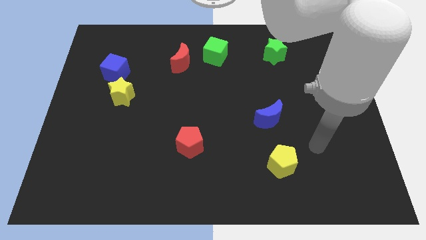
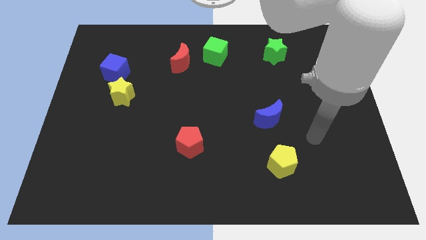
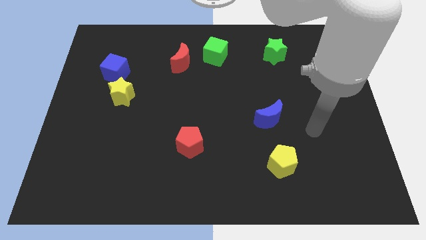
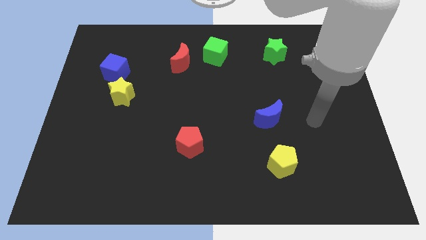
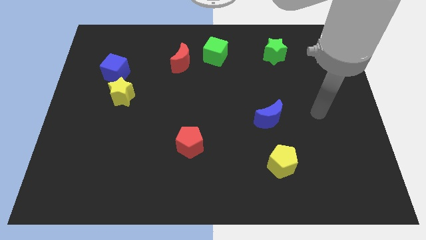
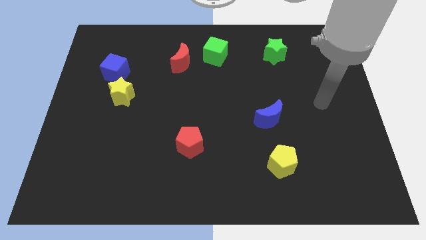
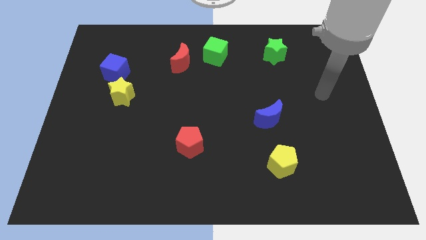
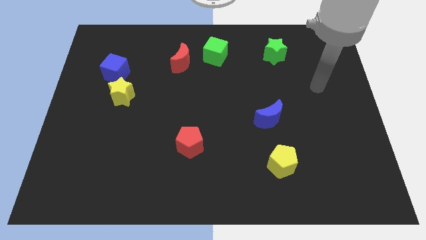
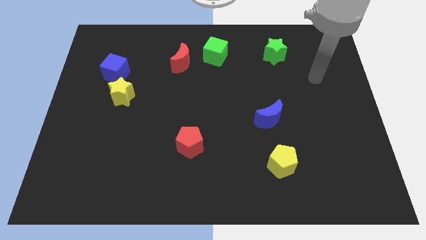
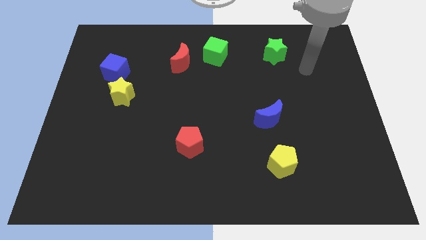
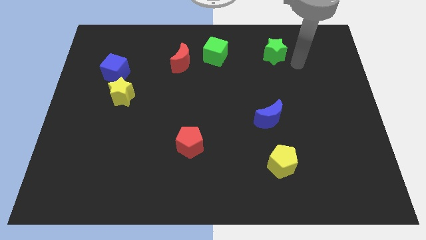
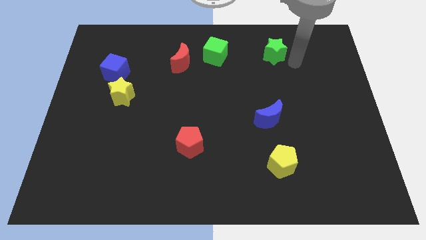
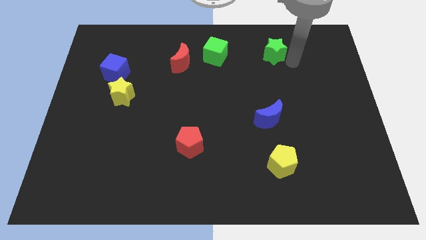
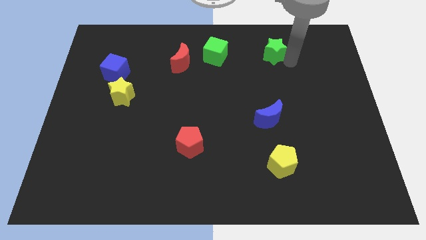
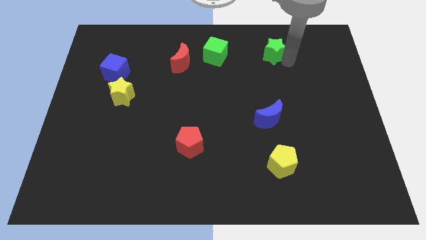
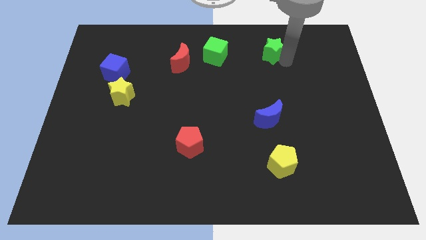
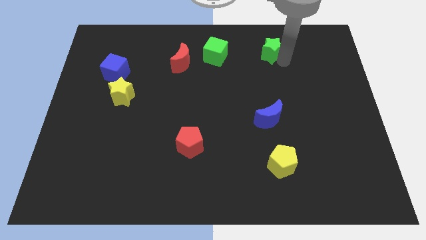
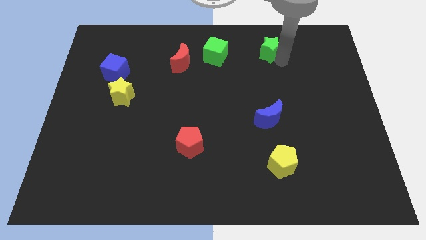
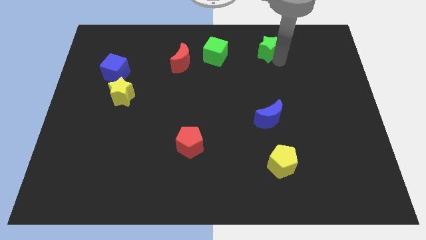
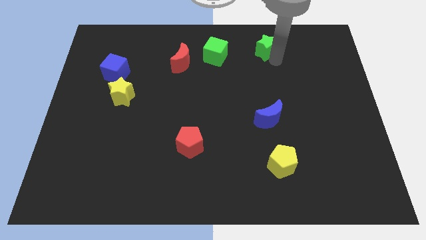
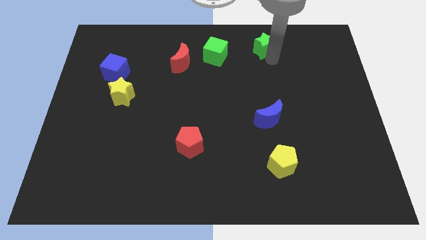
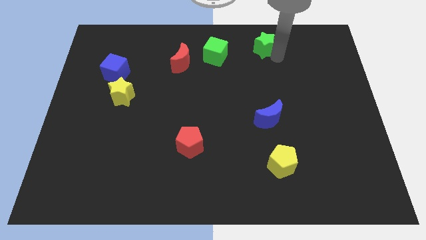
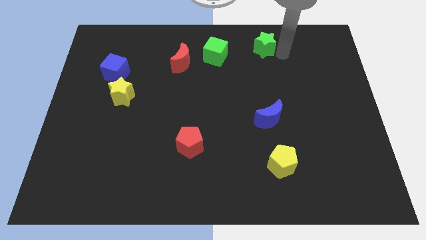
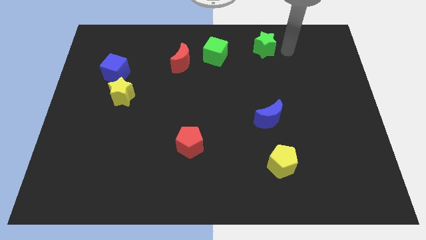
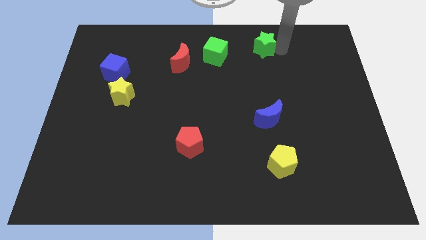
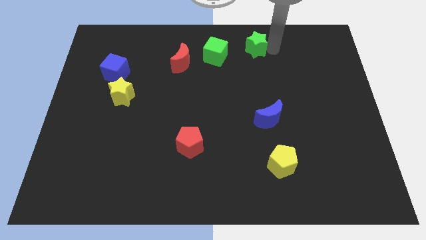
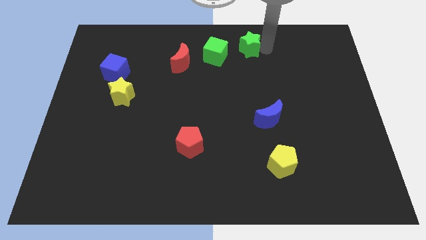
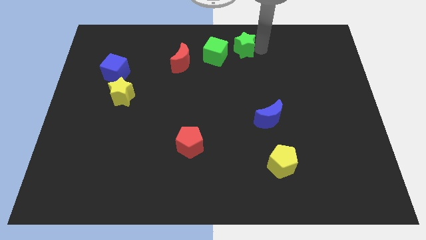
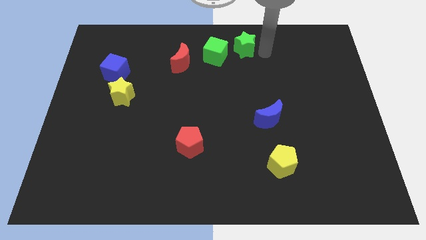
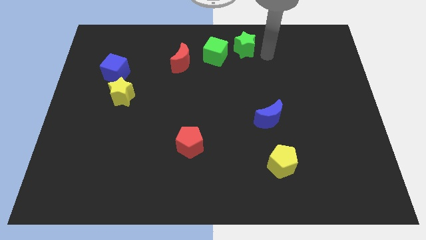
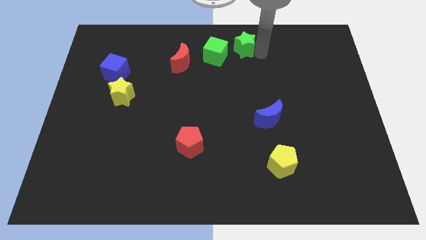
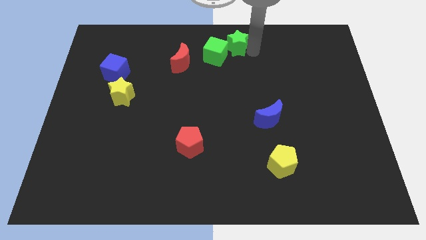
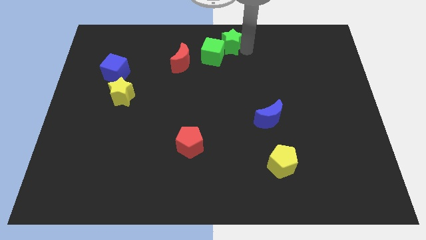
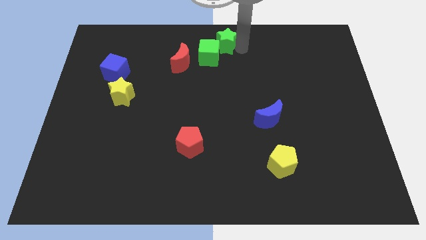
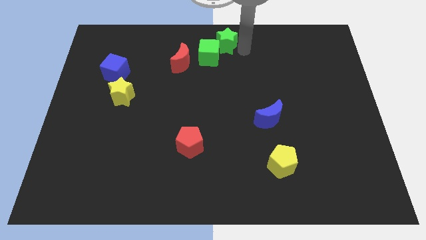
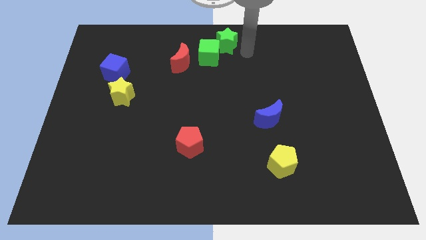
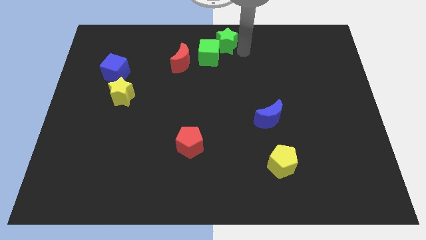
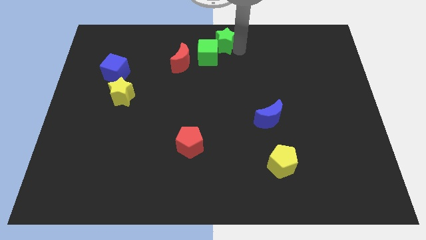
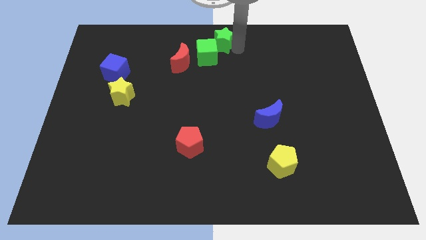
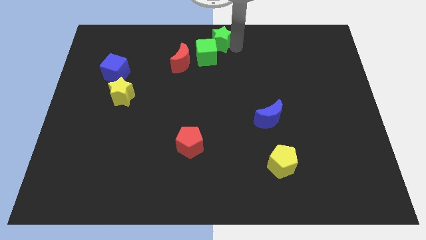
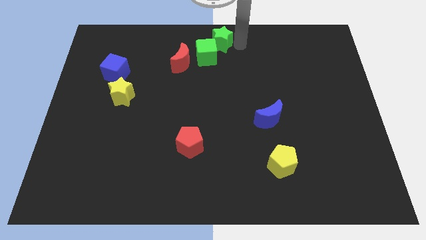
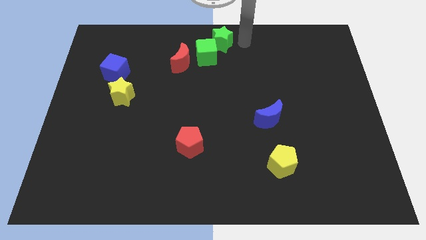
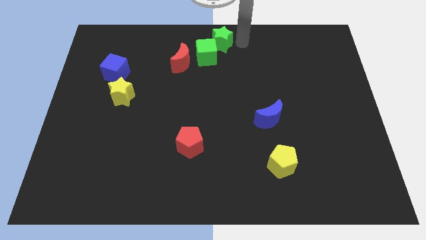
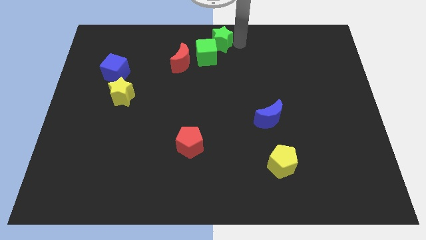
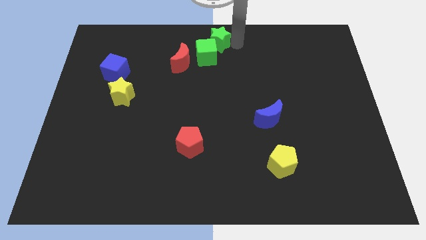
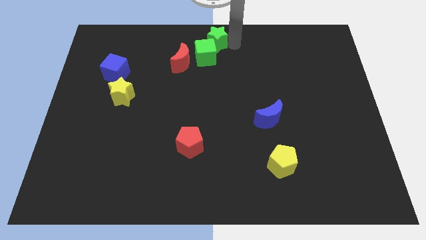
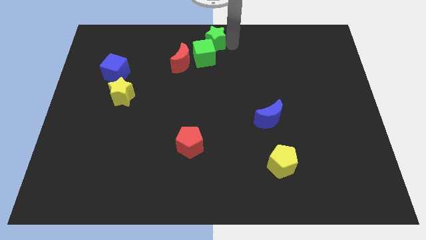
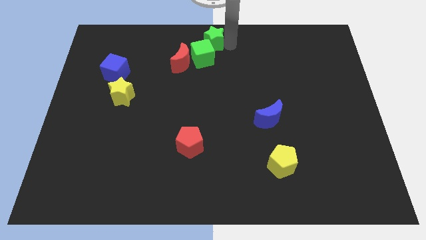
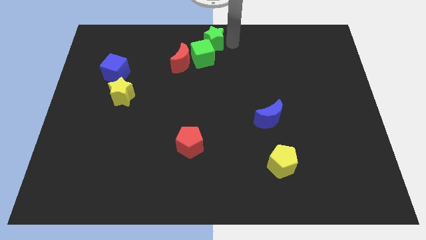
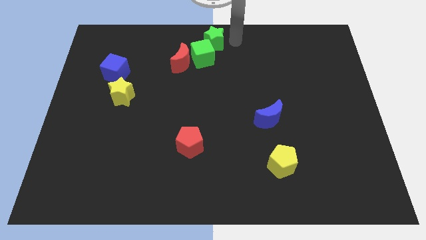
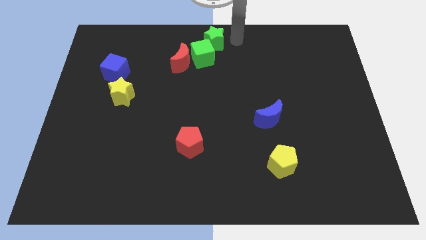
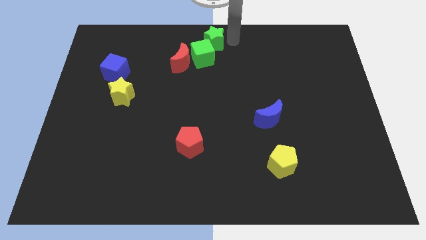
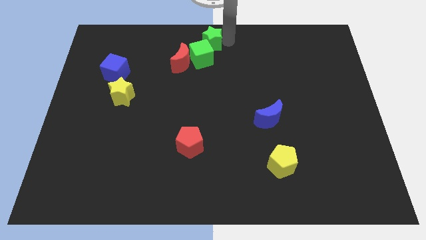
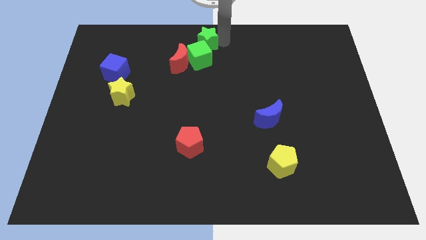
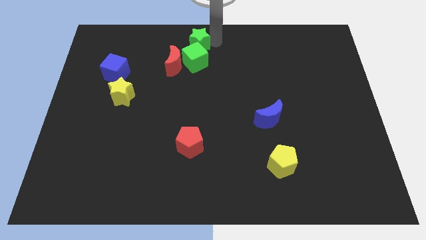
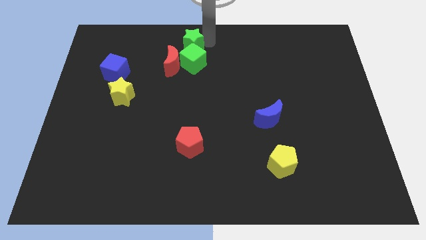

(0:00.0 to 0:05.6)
push the green star left

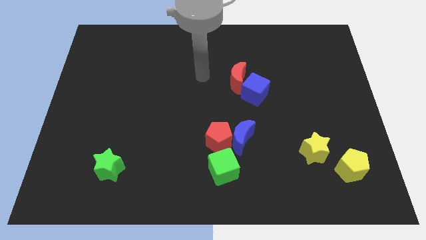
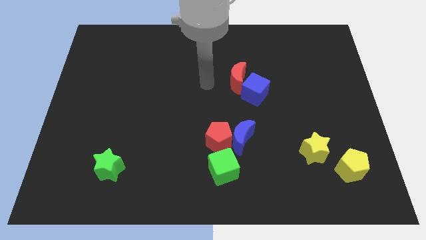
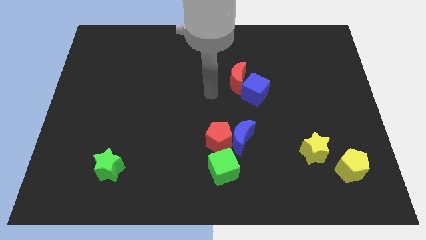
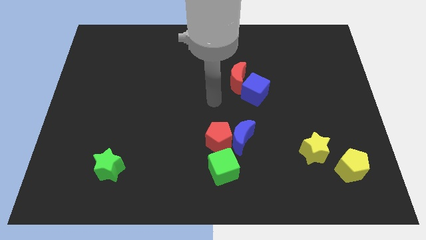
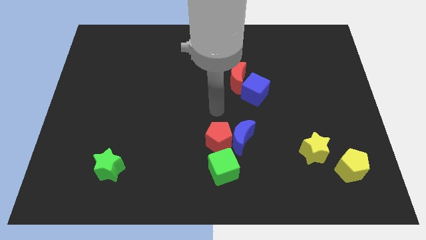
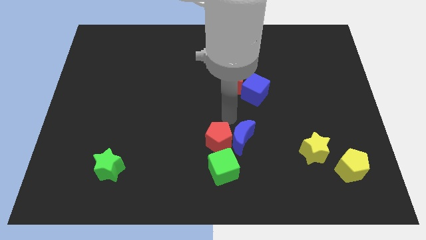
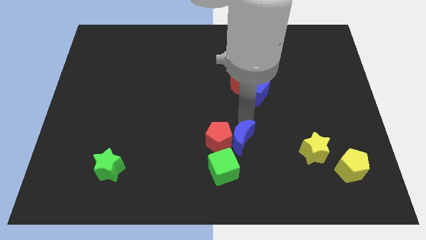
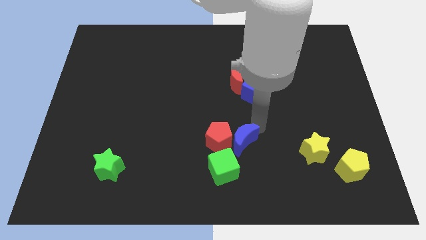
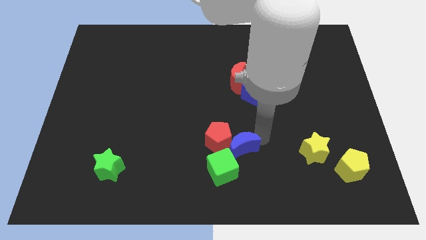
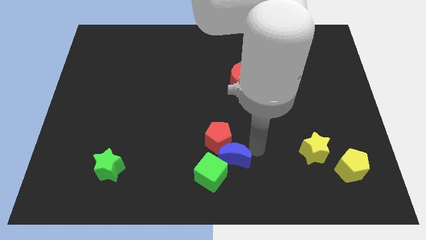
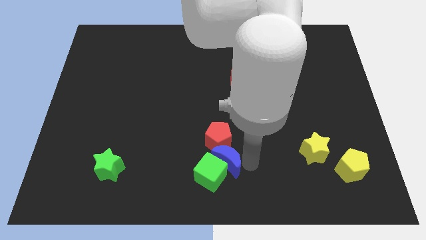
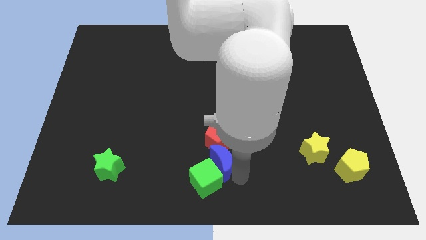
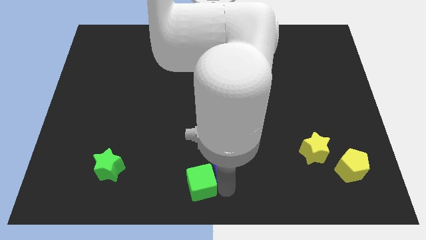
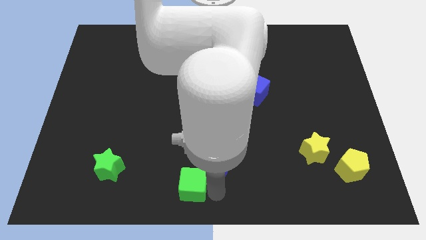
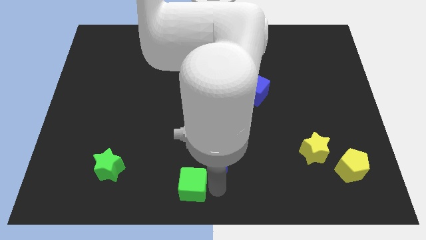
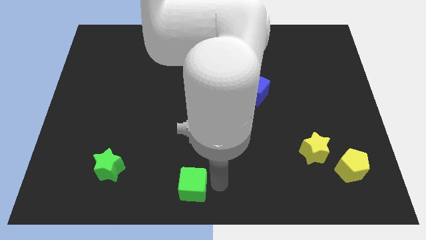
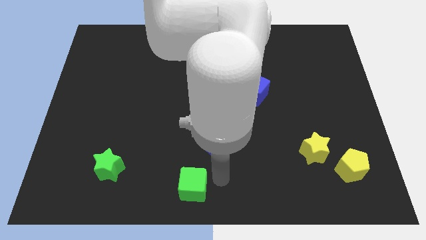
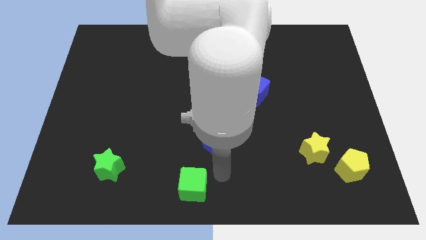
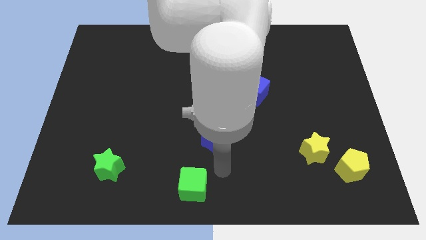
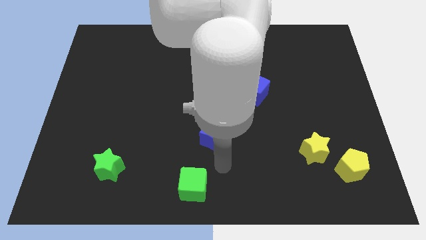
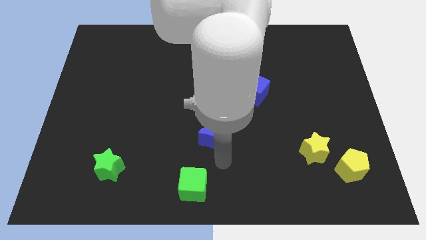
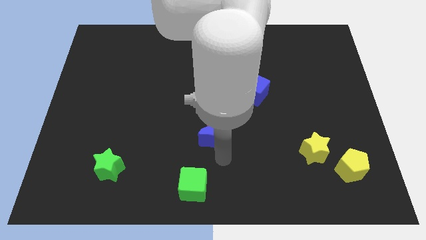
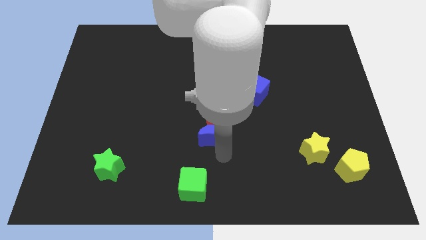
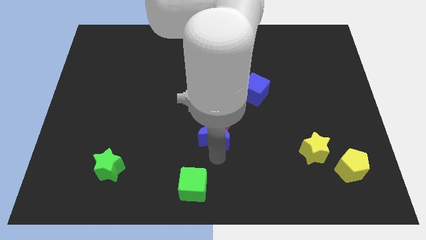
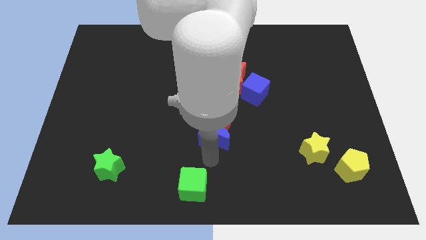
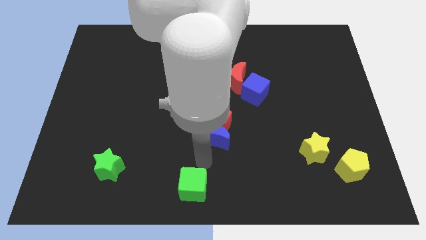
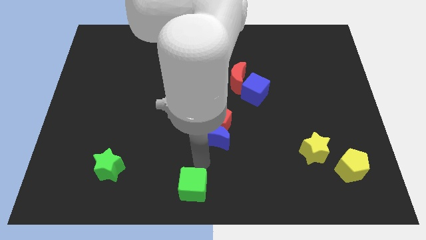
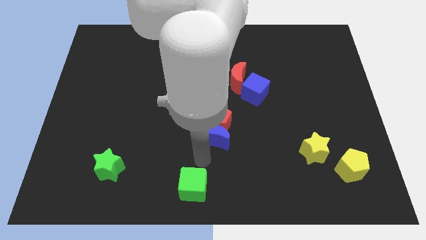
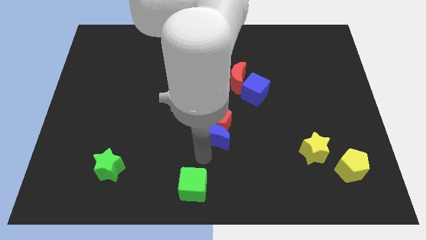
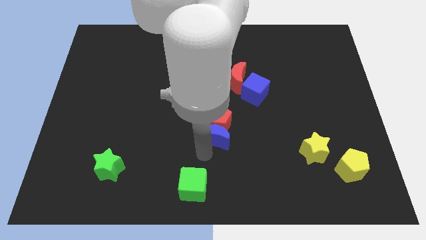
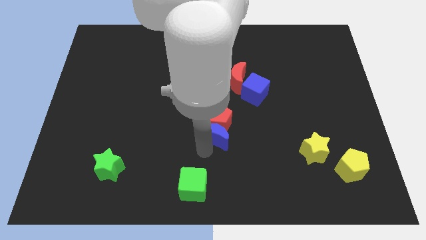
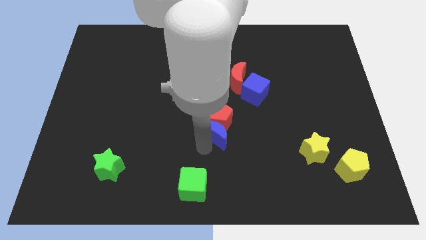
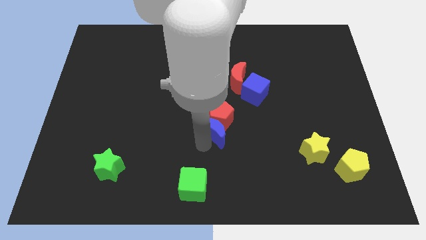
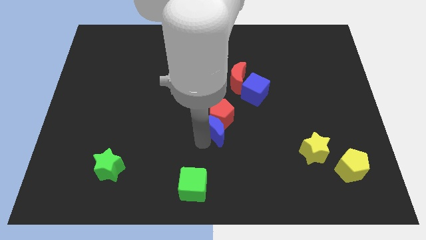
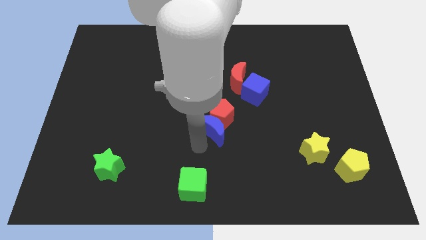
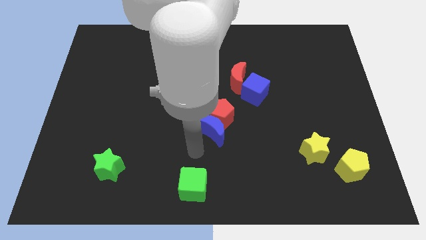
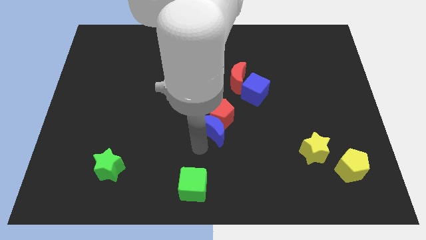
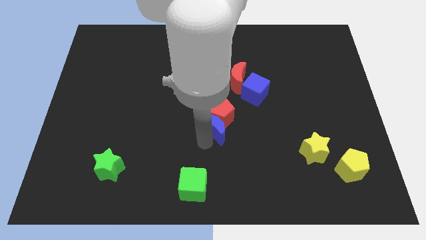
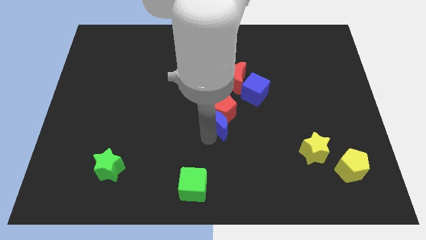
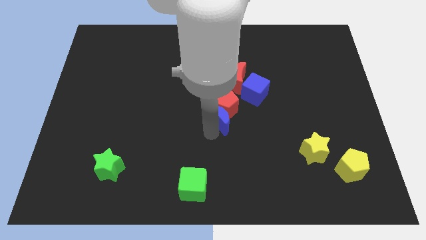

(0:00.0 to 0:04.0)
move the blue moon slightly up and left diagonally
